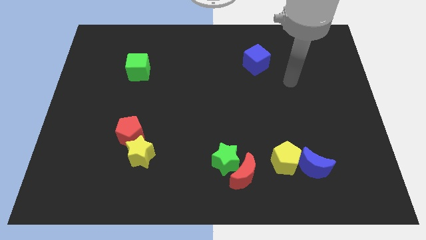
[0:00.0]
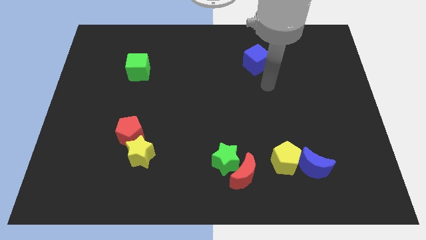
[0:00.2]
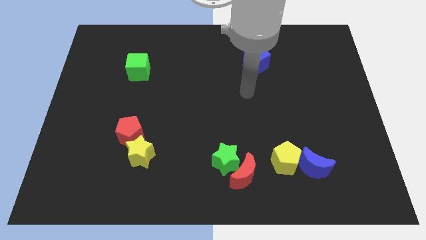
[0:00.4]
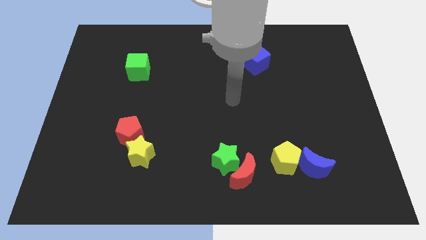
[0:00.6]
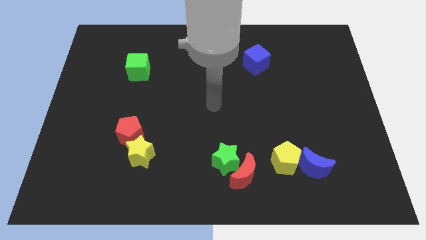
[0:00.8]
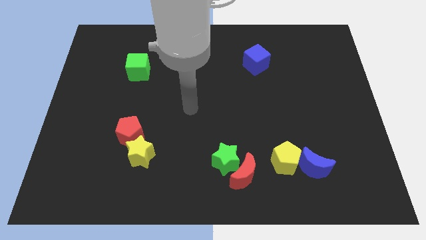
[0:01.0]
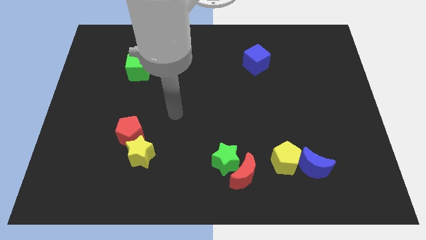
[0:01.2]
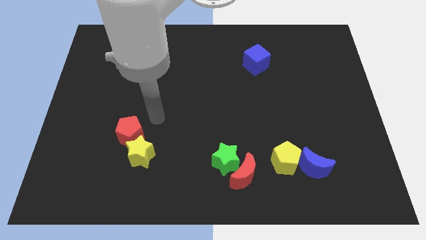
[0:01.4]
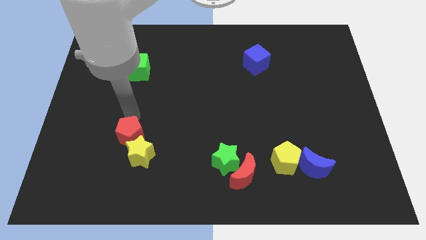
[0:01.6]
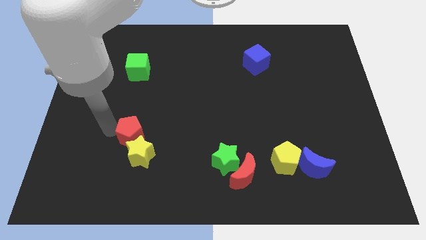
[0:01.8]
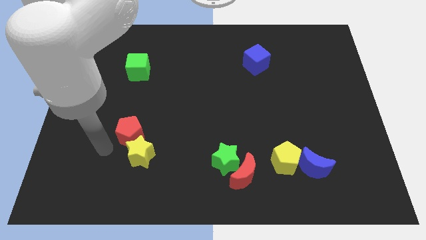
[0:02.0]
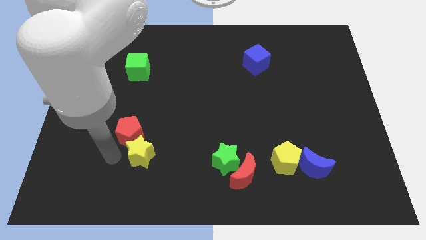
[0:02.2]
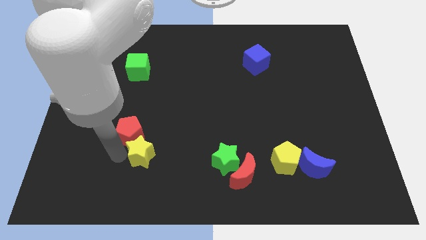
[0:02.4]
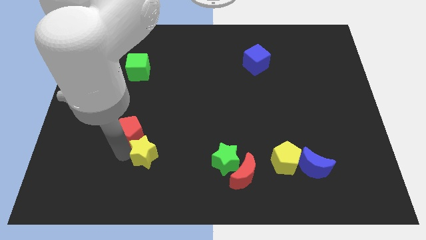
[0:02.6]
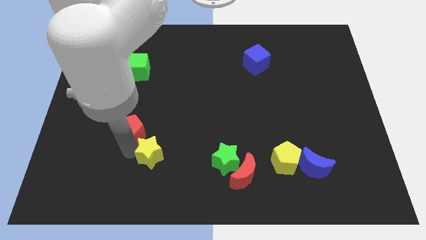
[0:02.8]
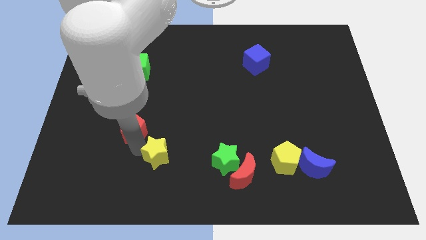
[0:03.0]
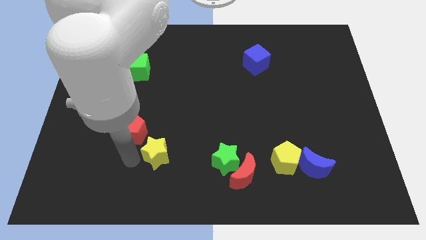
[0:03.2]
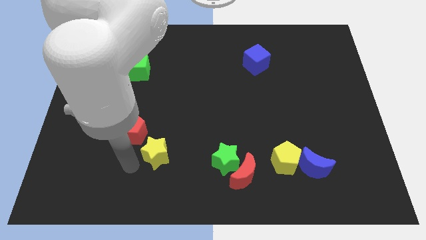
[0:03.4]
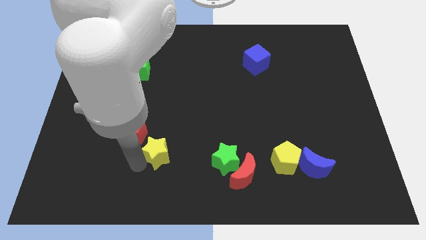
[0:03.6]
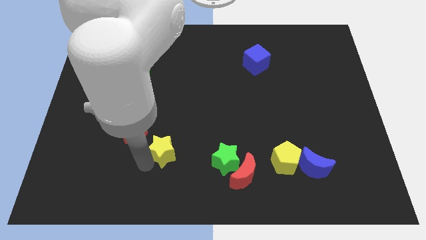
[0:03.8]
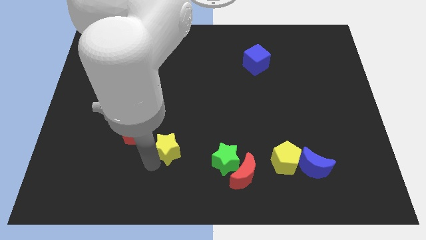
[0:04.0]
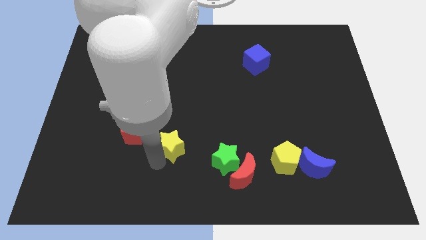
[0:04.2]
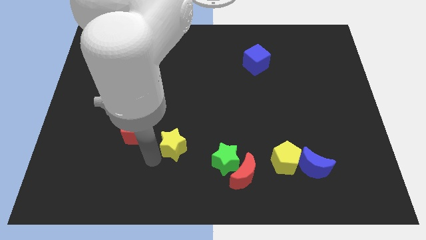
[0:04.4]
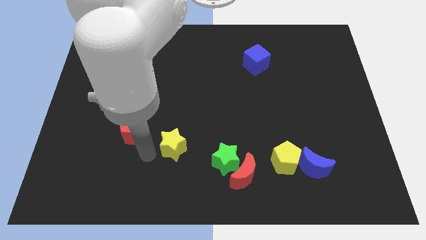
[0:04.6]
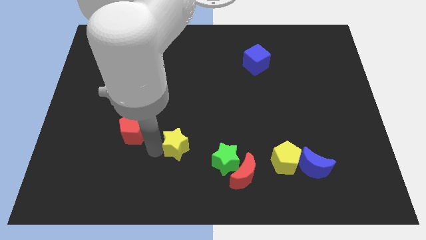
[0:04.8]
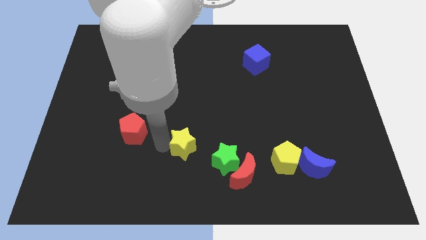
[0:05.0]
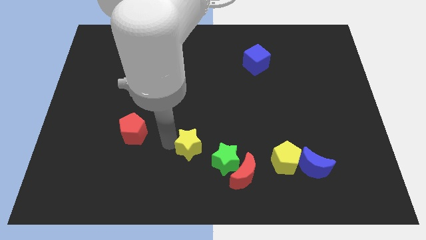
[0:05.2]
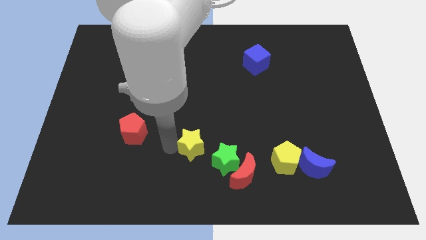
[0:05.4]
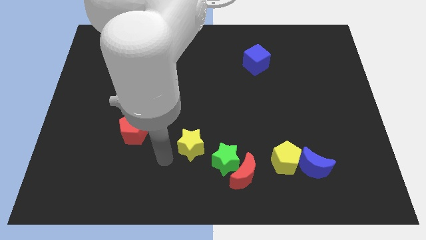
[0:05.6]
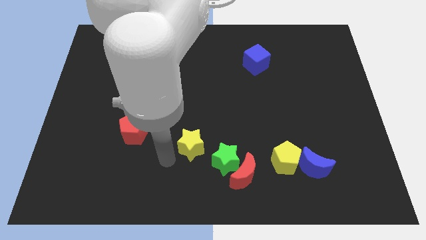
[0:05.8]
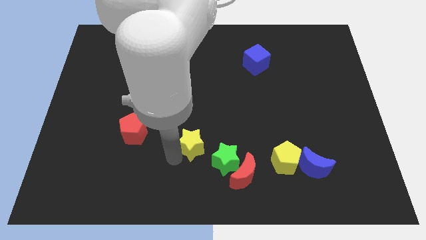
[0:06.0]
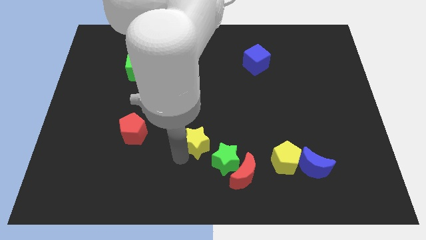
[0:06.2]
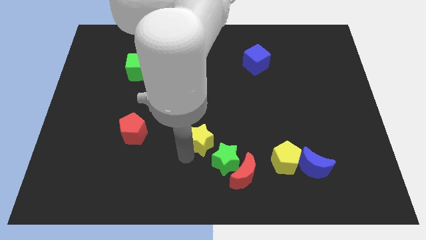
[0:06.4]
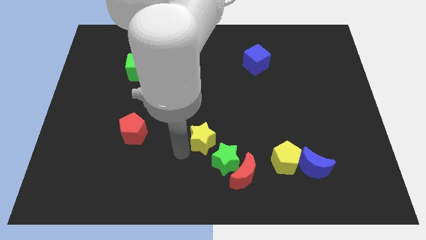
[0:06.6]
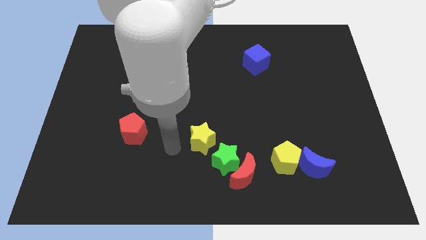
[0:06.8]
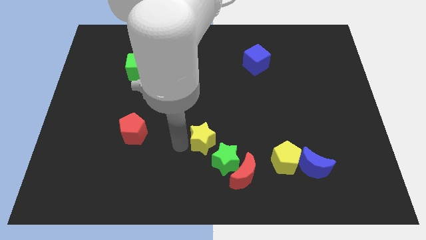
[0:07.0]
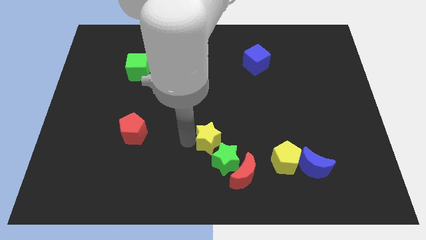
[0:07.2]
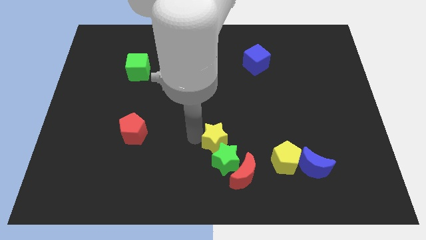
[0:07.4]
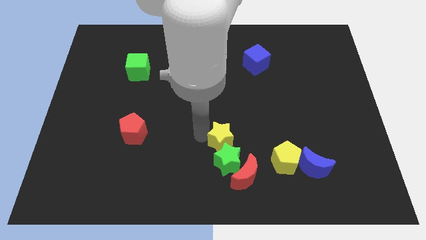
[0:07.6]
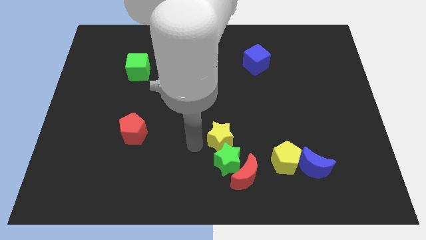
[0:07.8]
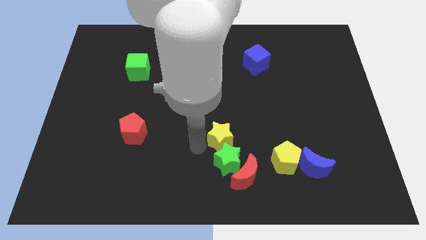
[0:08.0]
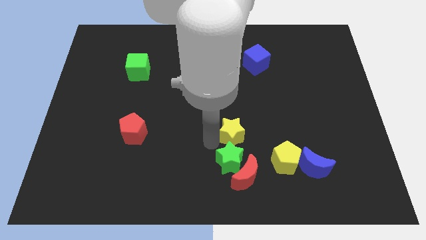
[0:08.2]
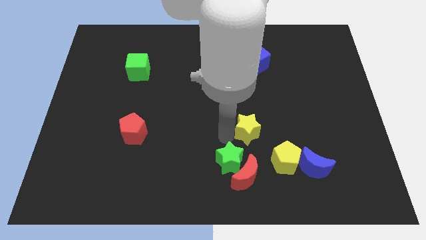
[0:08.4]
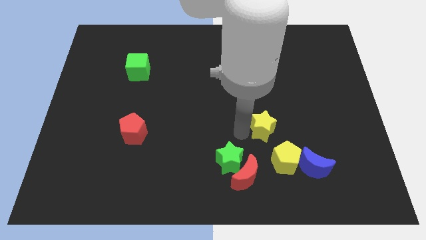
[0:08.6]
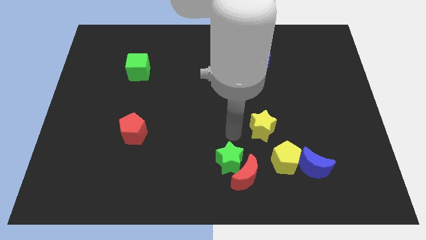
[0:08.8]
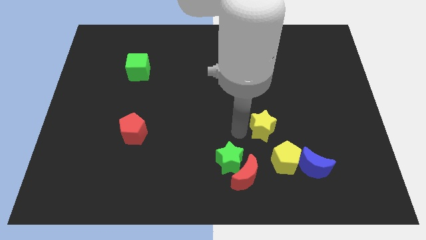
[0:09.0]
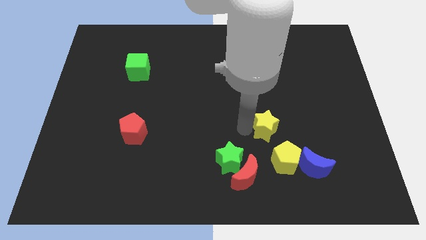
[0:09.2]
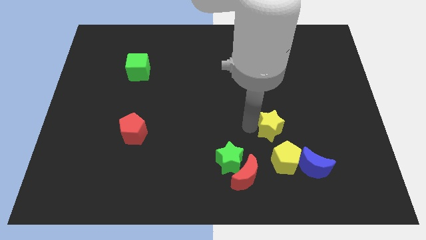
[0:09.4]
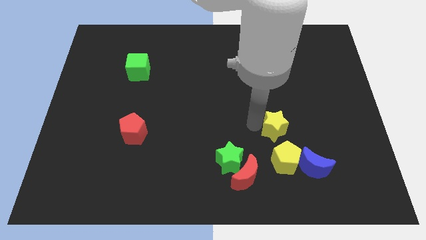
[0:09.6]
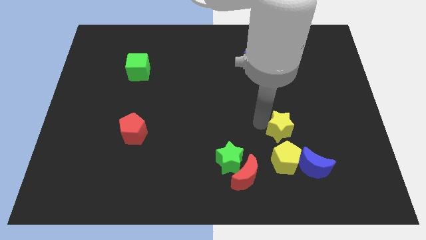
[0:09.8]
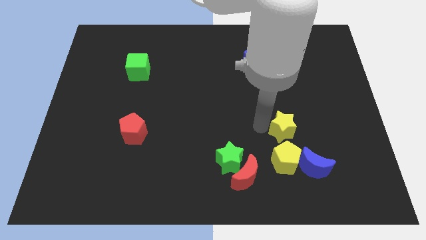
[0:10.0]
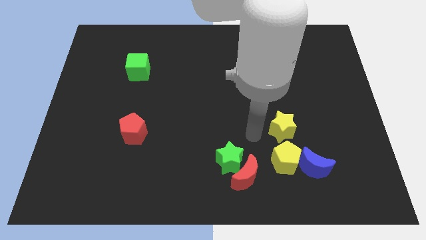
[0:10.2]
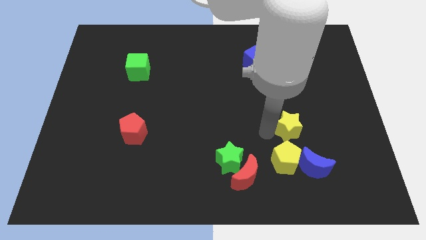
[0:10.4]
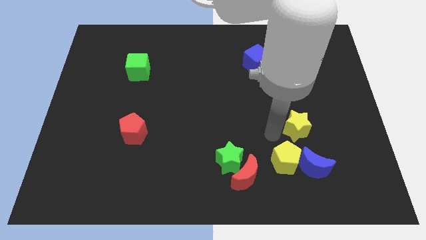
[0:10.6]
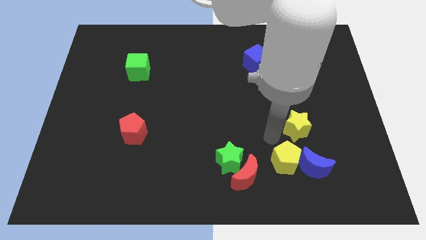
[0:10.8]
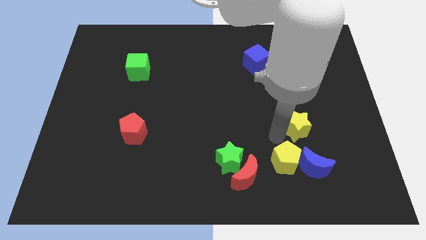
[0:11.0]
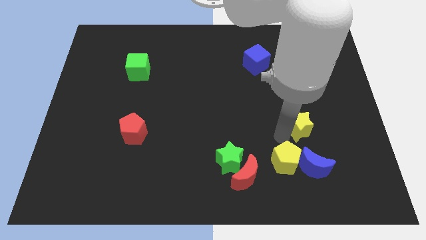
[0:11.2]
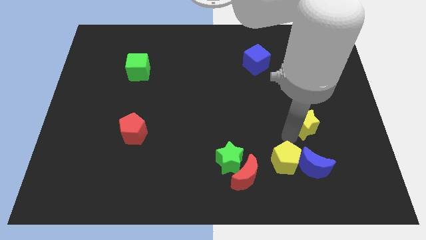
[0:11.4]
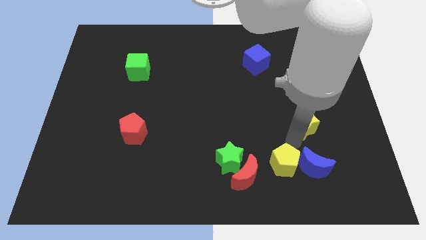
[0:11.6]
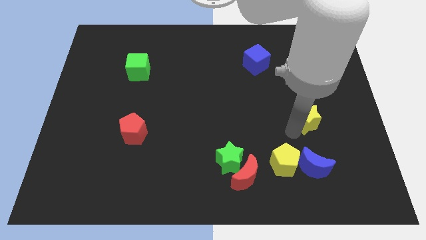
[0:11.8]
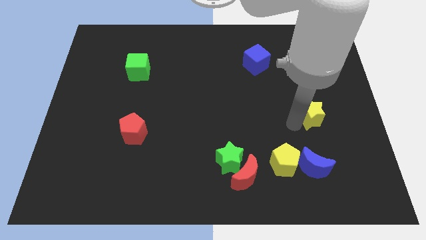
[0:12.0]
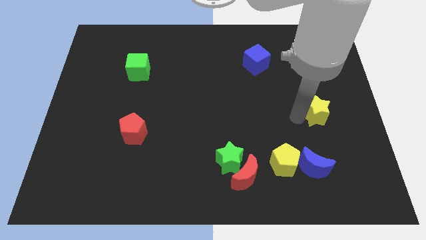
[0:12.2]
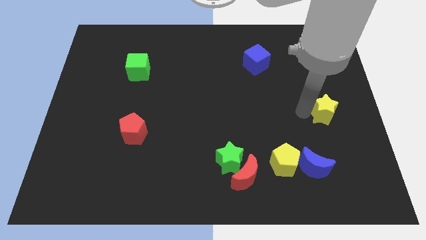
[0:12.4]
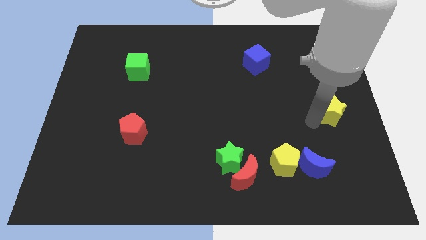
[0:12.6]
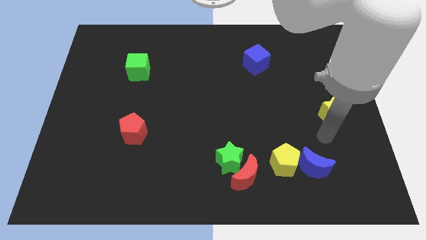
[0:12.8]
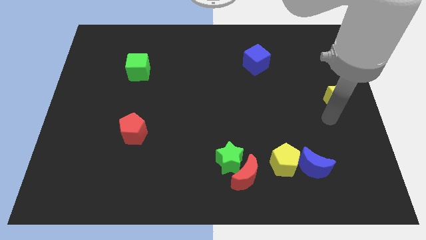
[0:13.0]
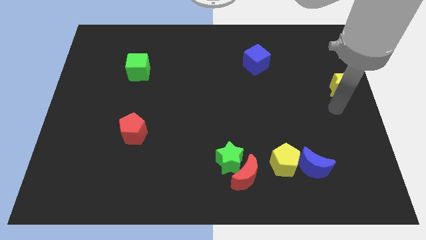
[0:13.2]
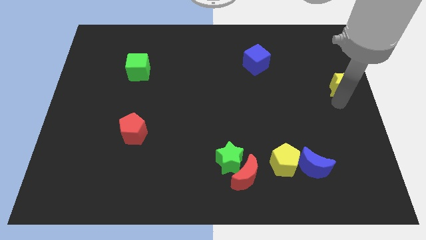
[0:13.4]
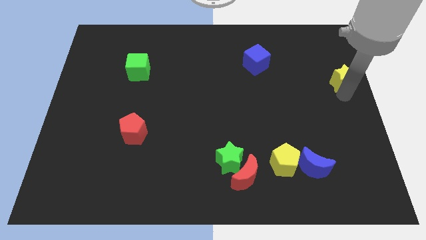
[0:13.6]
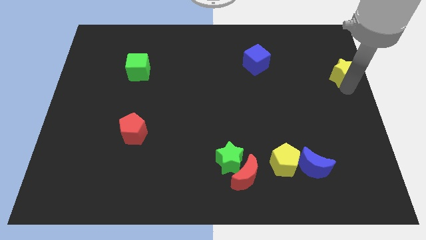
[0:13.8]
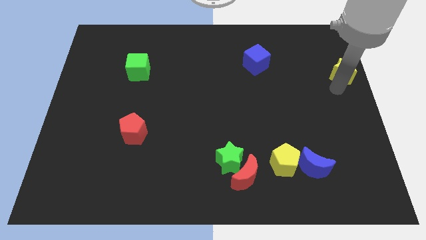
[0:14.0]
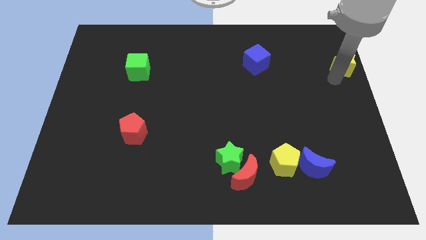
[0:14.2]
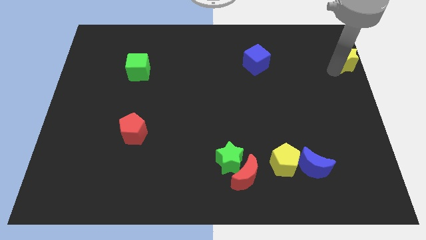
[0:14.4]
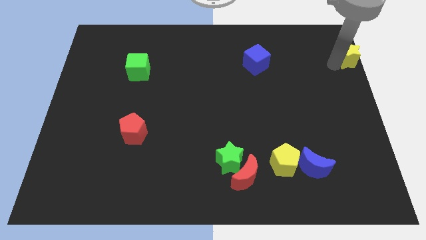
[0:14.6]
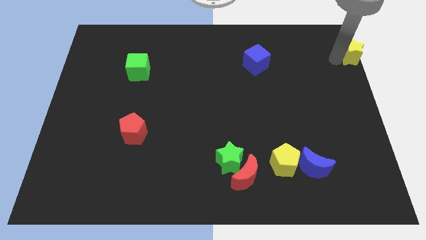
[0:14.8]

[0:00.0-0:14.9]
move the yellow star to the top right of the board

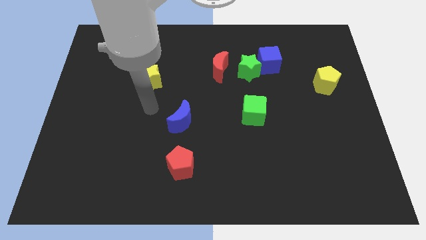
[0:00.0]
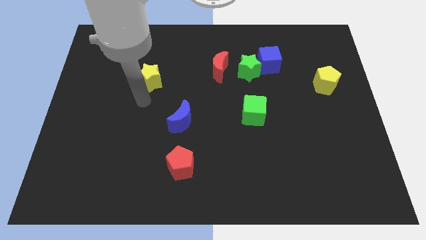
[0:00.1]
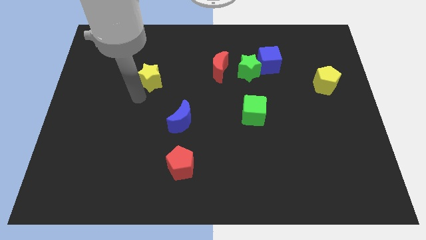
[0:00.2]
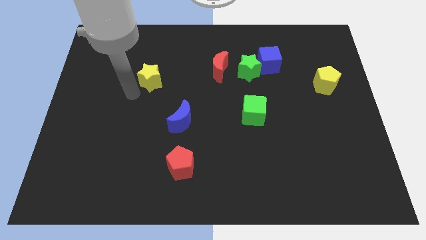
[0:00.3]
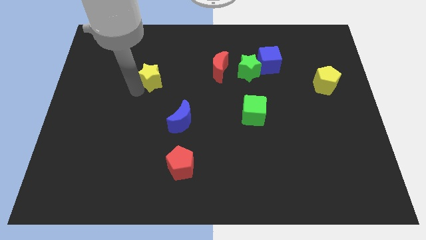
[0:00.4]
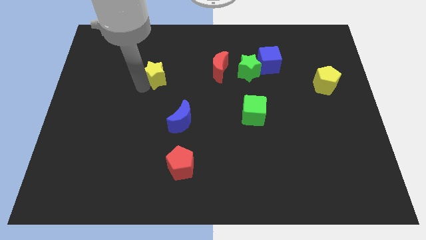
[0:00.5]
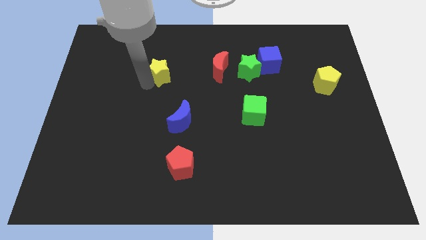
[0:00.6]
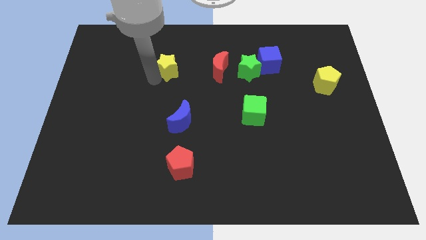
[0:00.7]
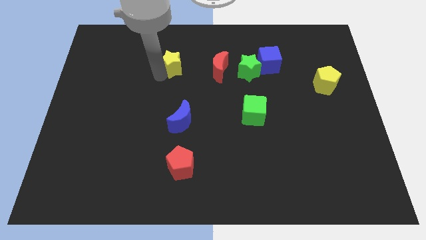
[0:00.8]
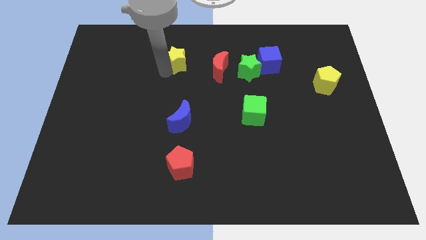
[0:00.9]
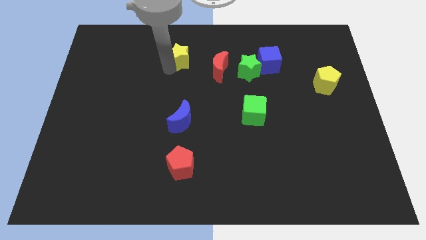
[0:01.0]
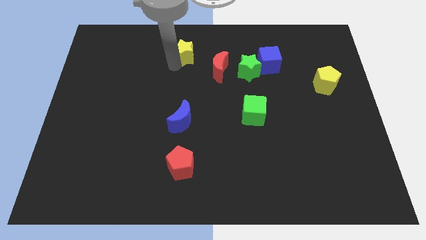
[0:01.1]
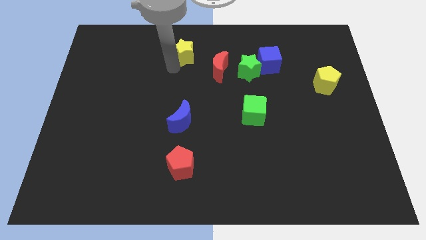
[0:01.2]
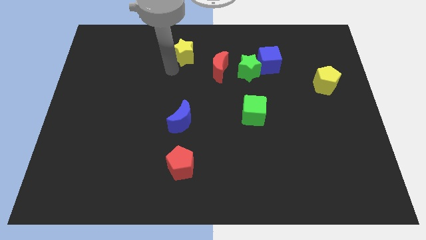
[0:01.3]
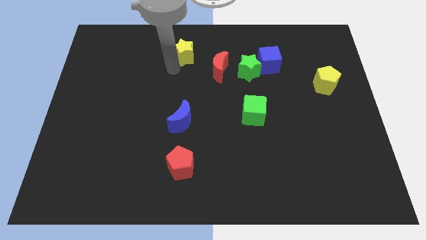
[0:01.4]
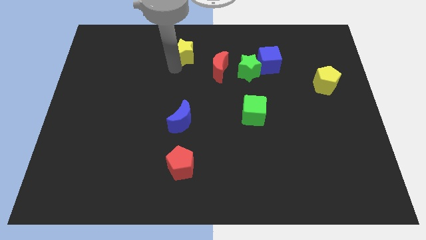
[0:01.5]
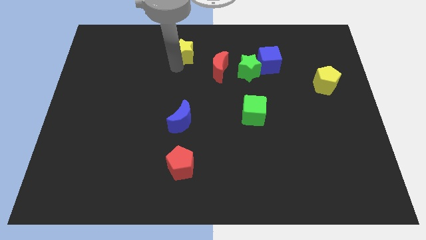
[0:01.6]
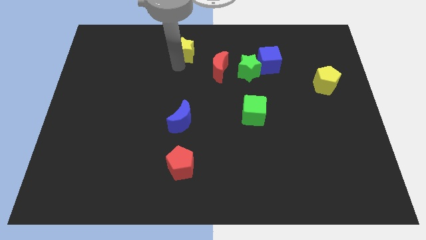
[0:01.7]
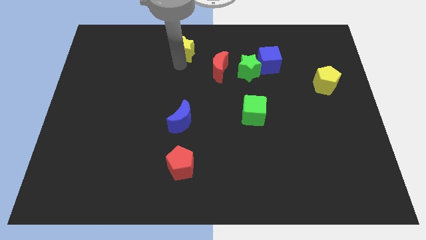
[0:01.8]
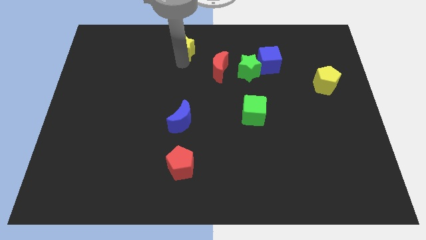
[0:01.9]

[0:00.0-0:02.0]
slide the yellow star to the towards your base
